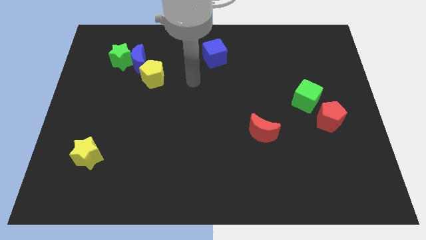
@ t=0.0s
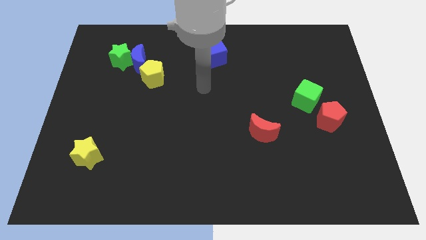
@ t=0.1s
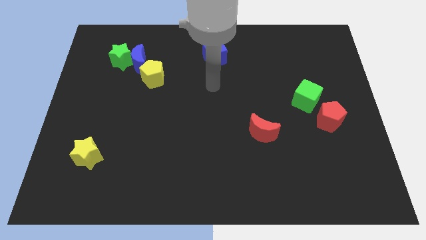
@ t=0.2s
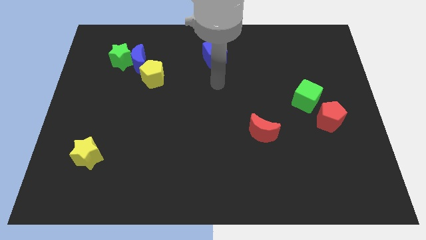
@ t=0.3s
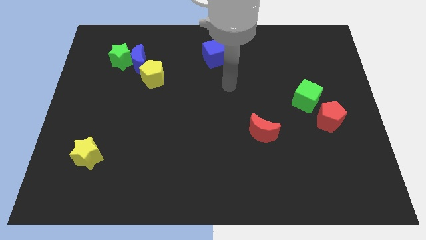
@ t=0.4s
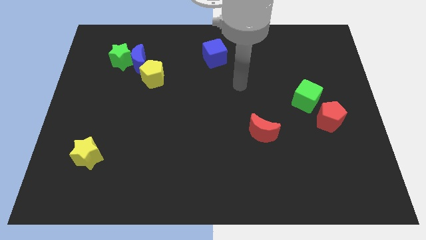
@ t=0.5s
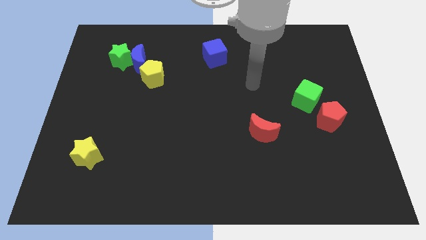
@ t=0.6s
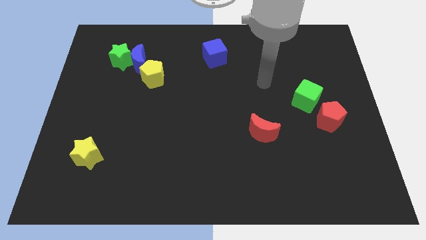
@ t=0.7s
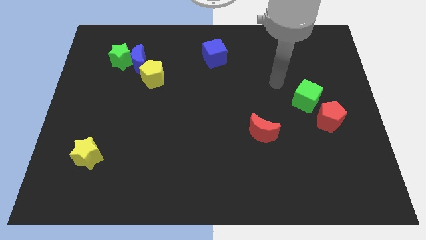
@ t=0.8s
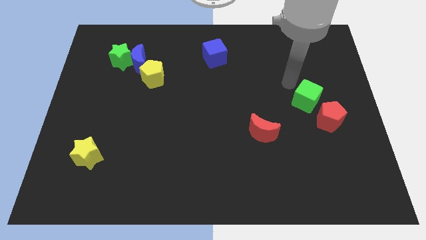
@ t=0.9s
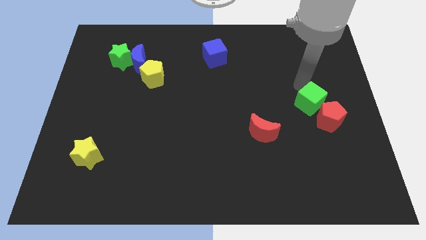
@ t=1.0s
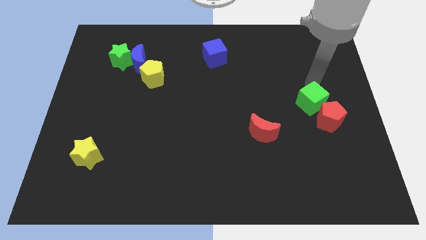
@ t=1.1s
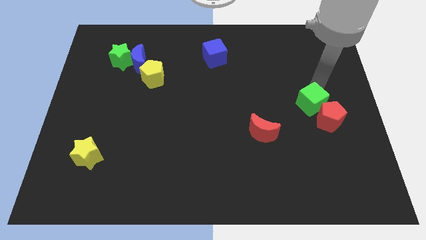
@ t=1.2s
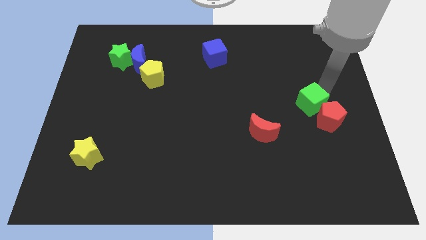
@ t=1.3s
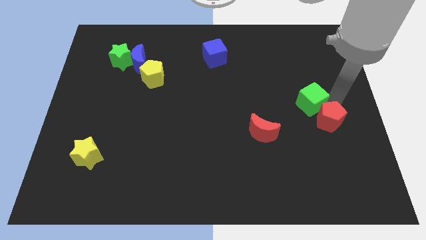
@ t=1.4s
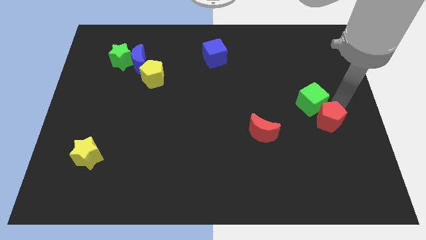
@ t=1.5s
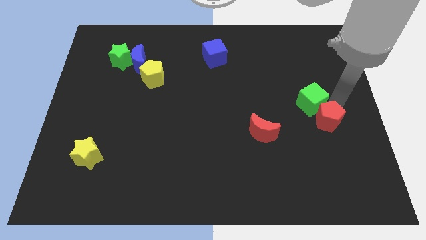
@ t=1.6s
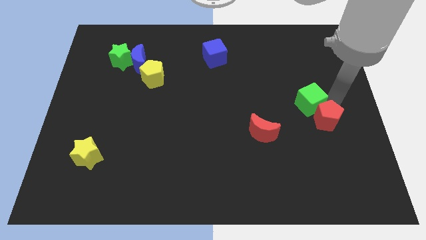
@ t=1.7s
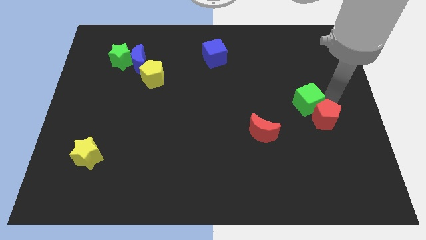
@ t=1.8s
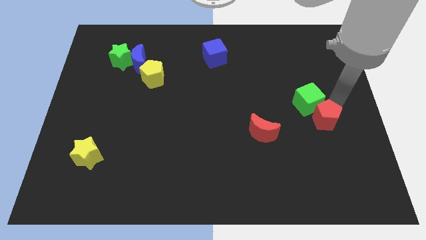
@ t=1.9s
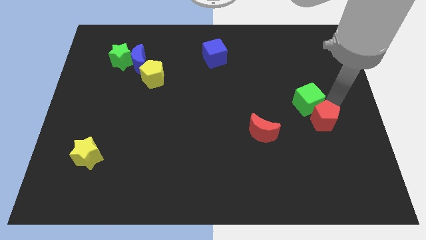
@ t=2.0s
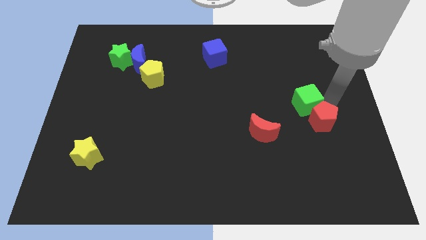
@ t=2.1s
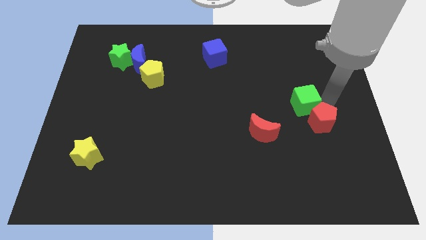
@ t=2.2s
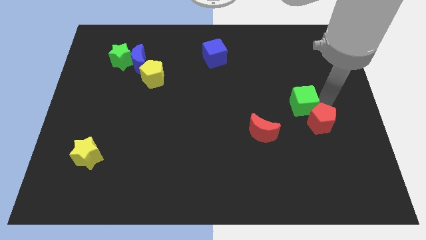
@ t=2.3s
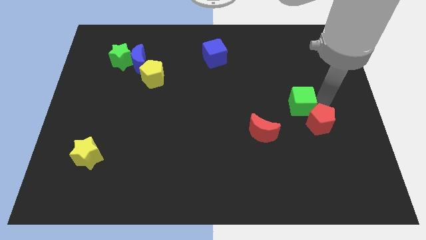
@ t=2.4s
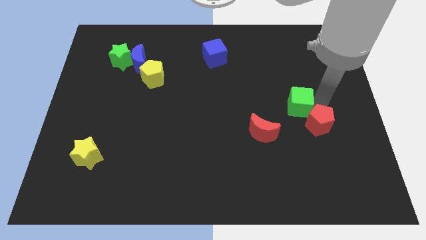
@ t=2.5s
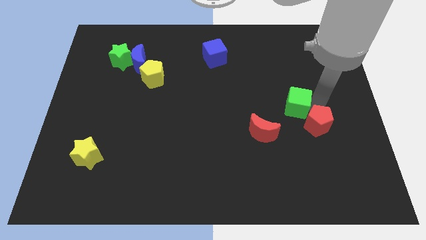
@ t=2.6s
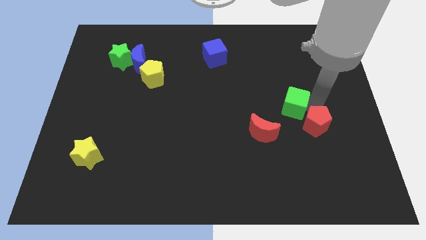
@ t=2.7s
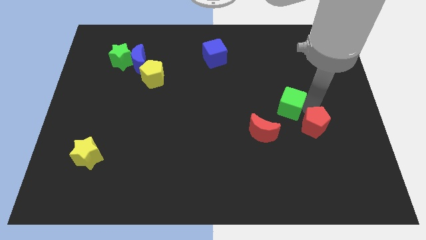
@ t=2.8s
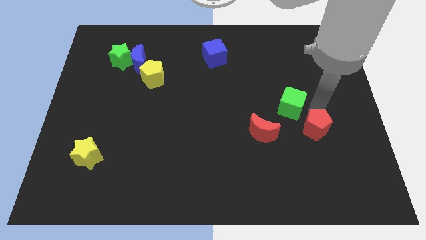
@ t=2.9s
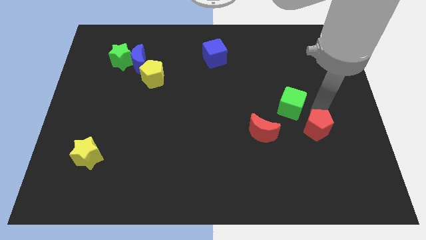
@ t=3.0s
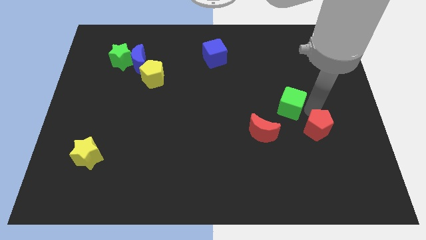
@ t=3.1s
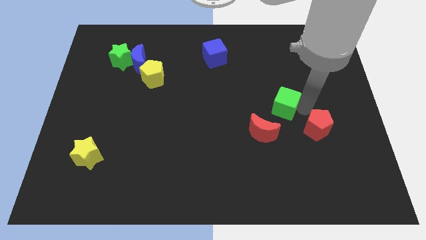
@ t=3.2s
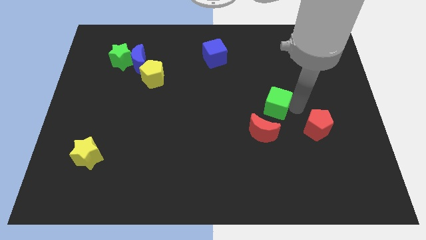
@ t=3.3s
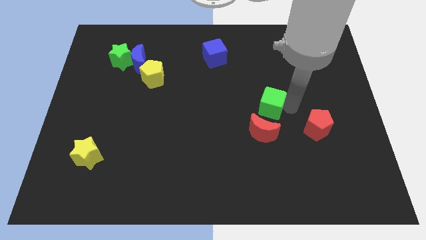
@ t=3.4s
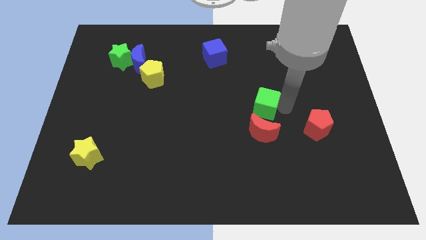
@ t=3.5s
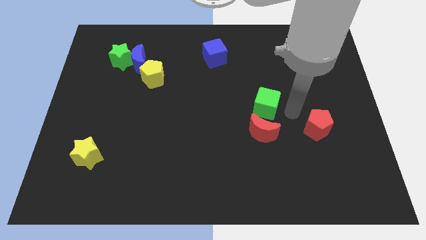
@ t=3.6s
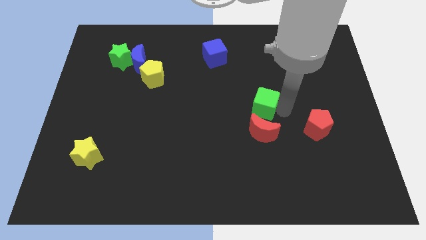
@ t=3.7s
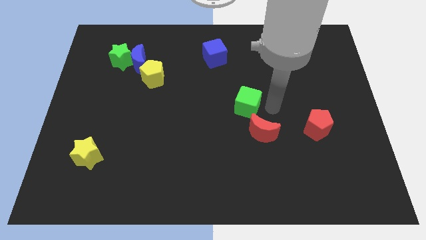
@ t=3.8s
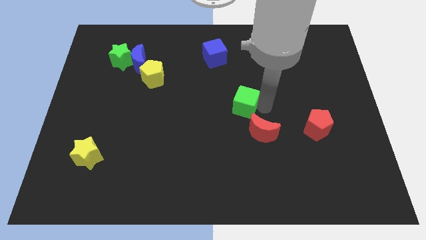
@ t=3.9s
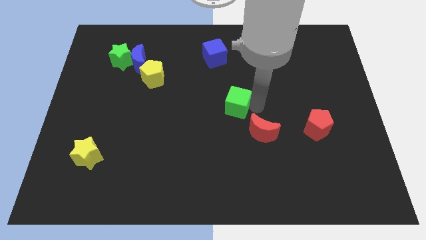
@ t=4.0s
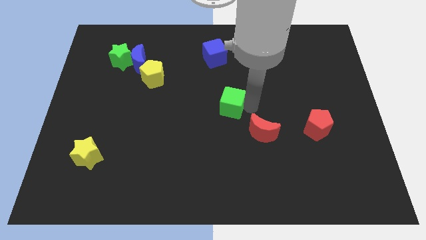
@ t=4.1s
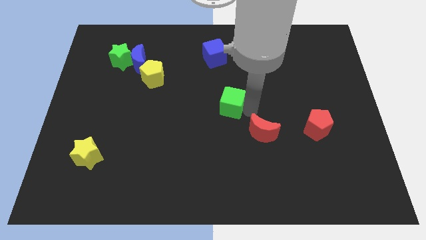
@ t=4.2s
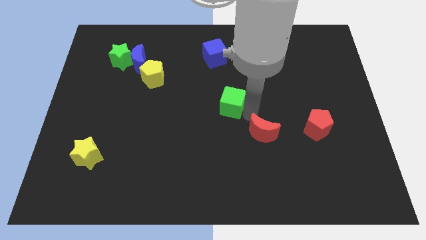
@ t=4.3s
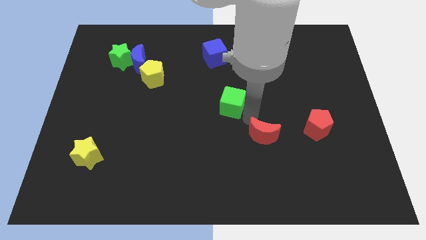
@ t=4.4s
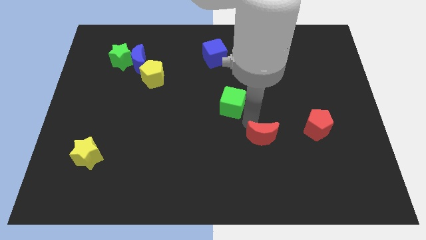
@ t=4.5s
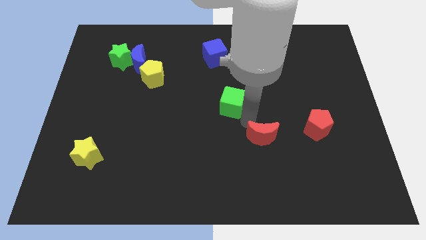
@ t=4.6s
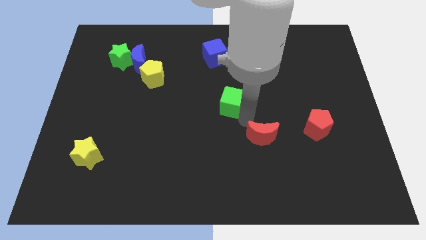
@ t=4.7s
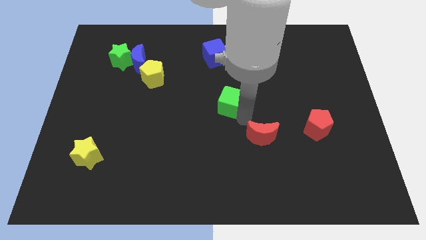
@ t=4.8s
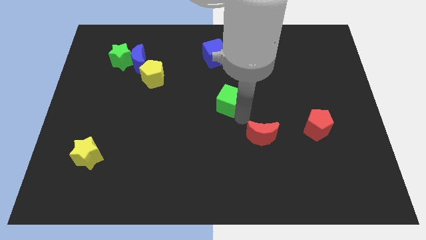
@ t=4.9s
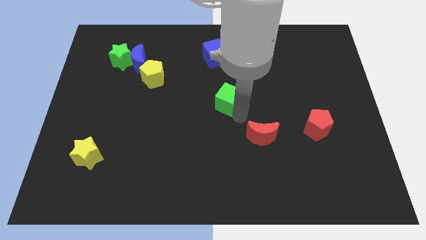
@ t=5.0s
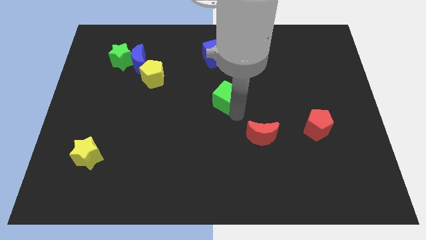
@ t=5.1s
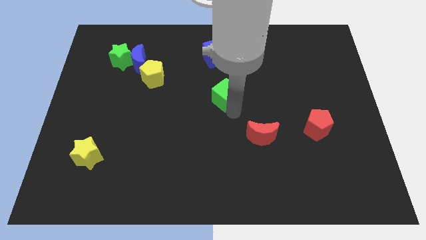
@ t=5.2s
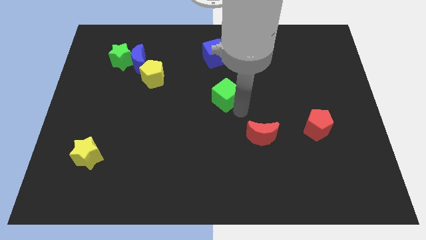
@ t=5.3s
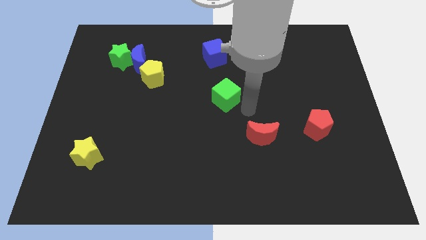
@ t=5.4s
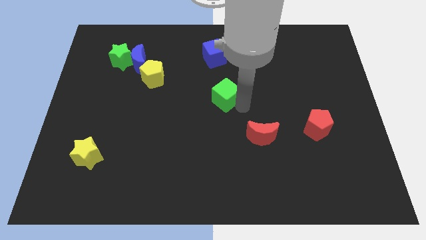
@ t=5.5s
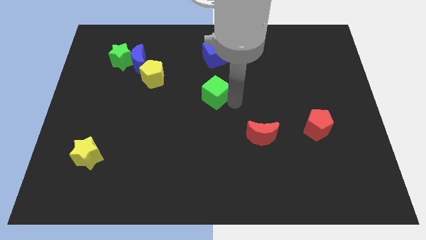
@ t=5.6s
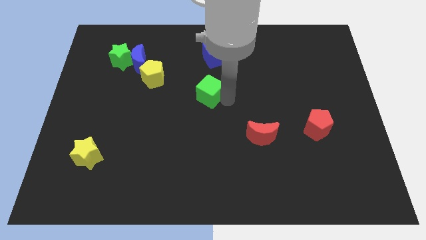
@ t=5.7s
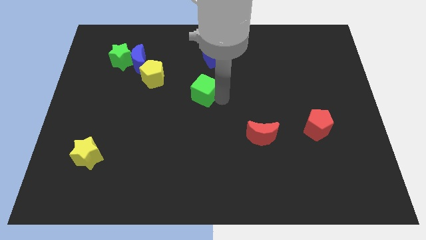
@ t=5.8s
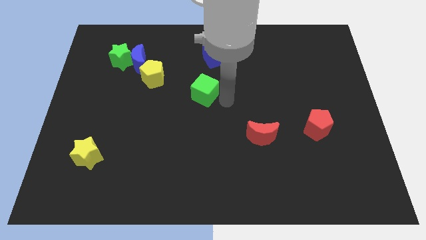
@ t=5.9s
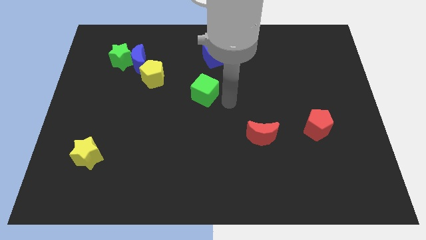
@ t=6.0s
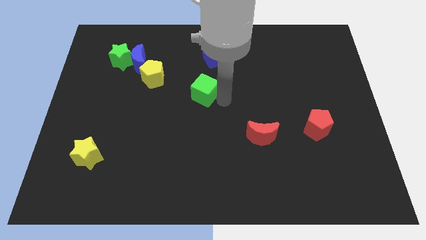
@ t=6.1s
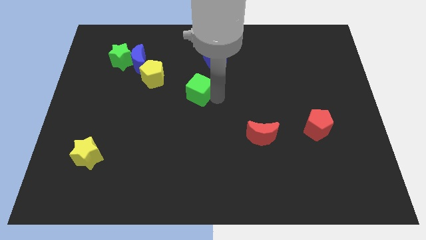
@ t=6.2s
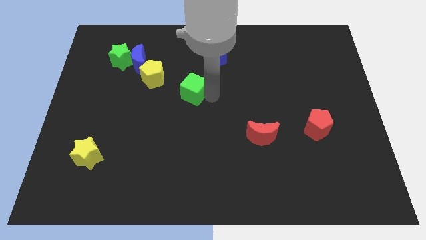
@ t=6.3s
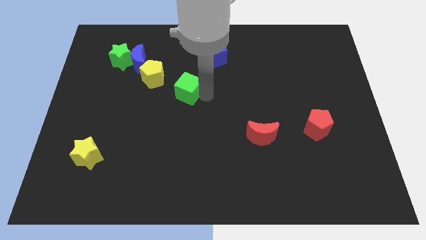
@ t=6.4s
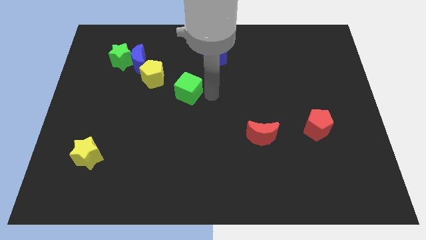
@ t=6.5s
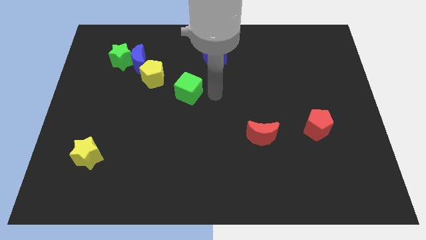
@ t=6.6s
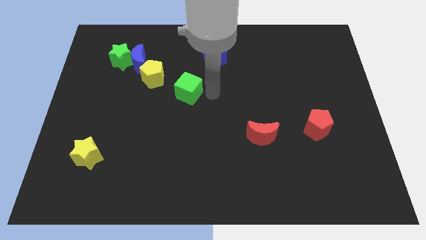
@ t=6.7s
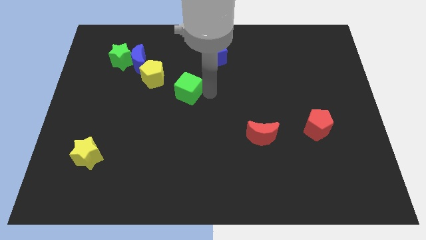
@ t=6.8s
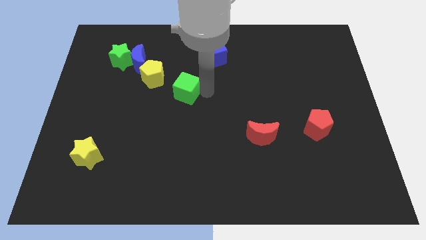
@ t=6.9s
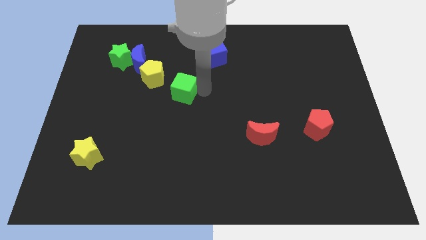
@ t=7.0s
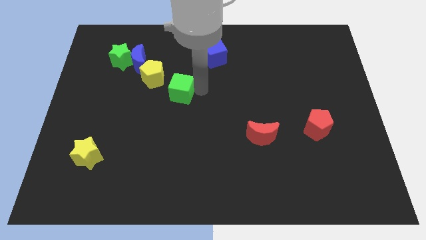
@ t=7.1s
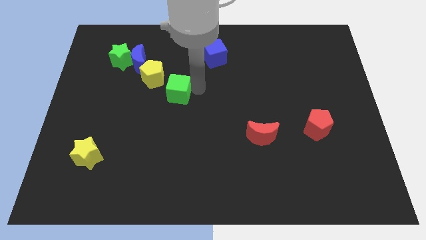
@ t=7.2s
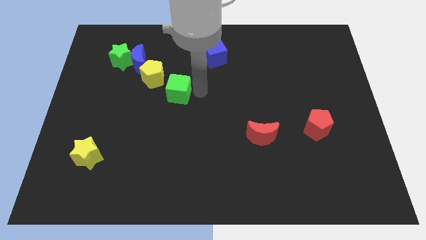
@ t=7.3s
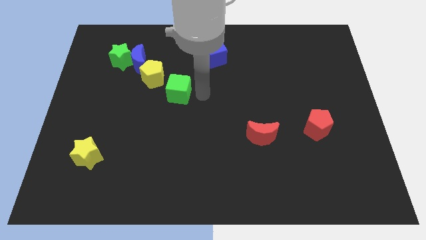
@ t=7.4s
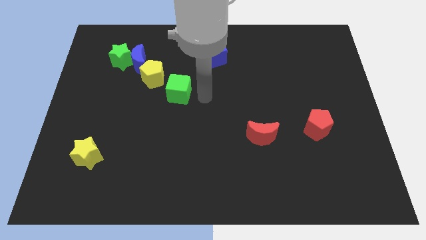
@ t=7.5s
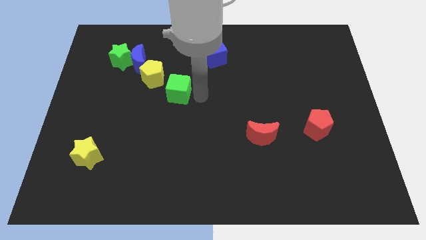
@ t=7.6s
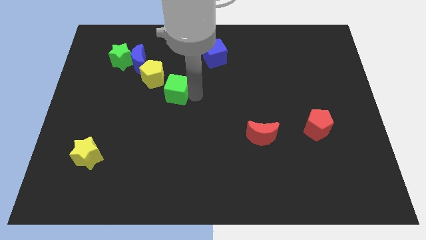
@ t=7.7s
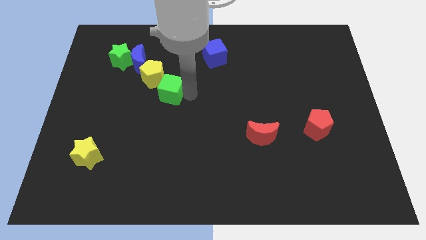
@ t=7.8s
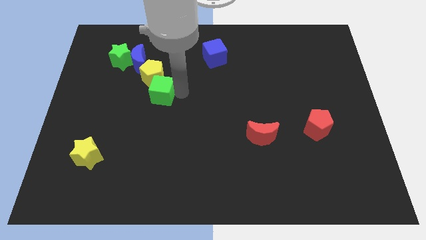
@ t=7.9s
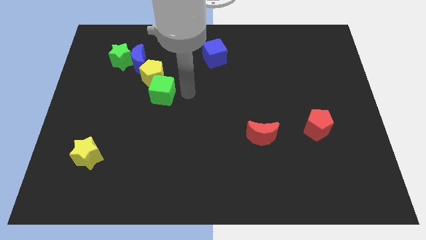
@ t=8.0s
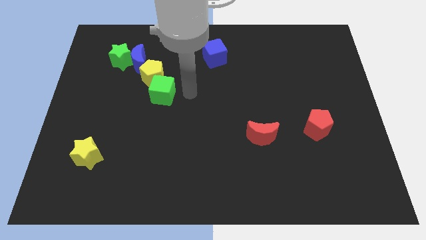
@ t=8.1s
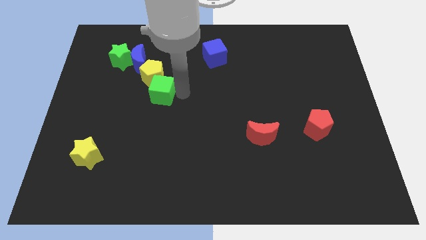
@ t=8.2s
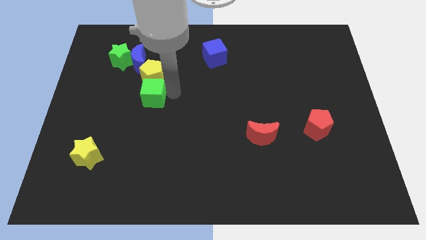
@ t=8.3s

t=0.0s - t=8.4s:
slide the green cube to the bottom left side of the yellow pentagon
